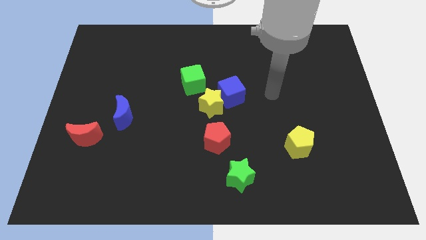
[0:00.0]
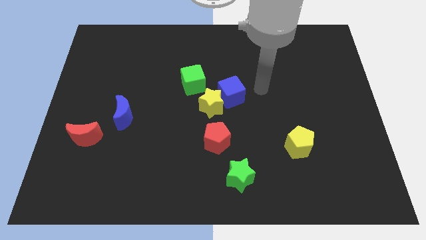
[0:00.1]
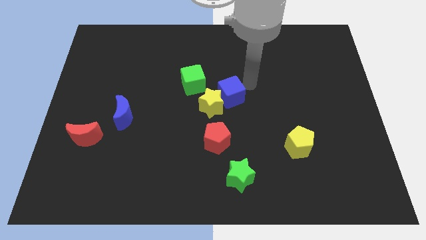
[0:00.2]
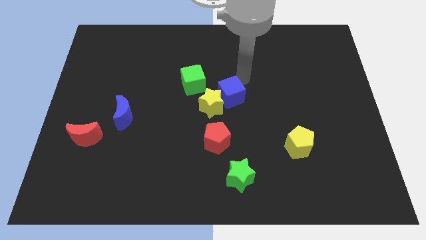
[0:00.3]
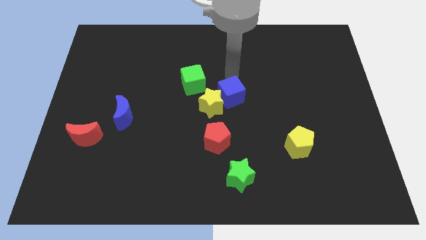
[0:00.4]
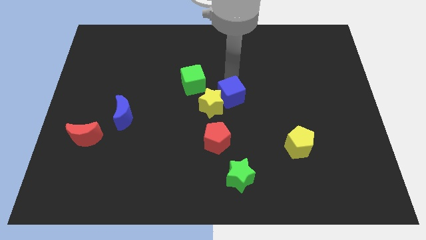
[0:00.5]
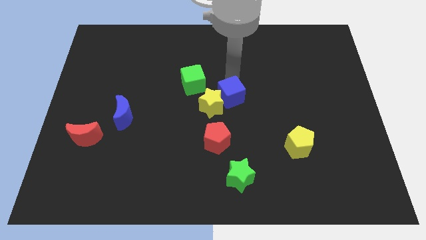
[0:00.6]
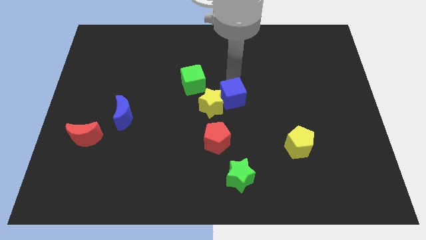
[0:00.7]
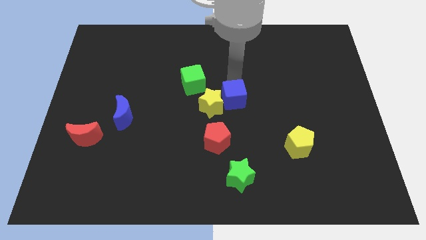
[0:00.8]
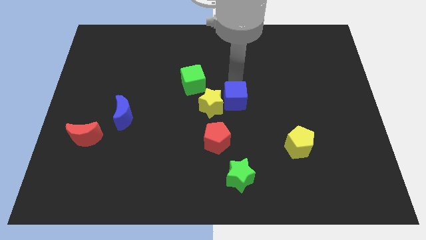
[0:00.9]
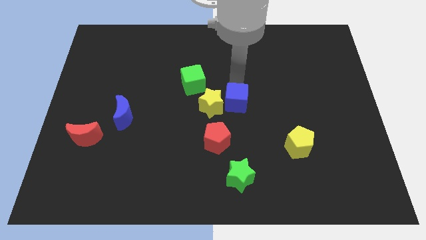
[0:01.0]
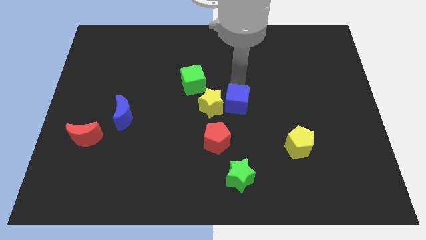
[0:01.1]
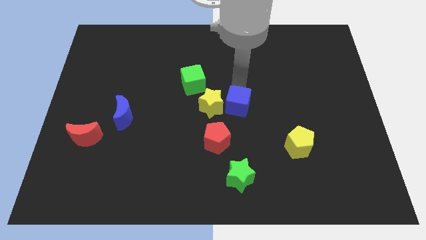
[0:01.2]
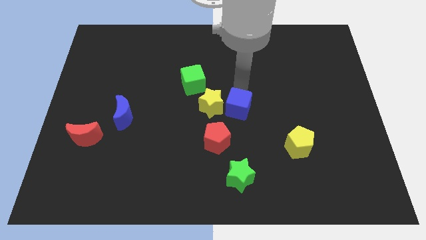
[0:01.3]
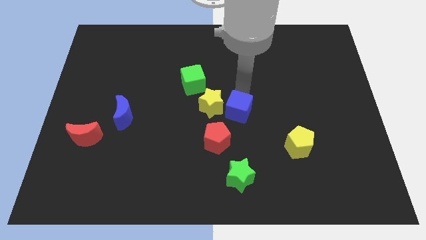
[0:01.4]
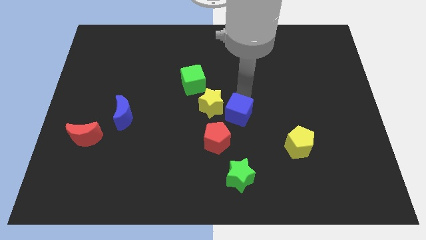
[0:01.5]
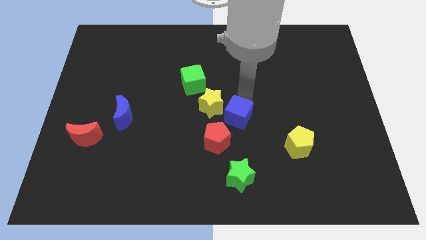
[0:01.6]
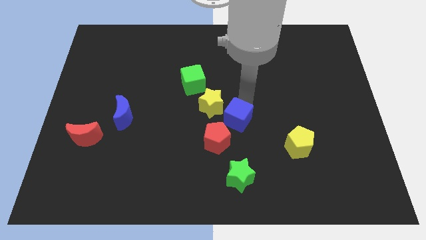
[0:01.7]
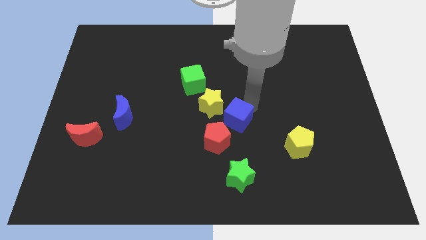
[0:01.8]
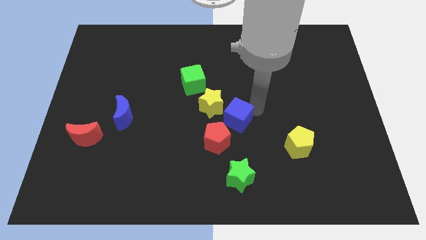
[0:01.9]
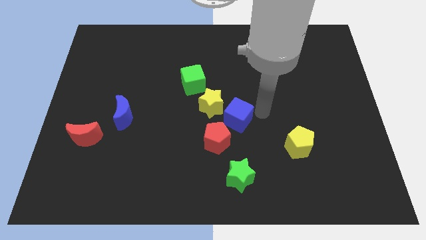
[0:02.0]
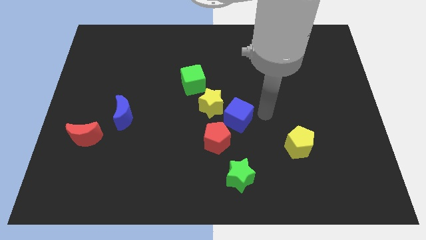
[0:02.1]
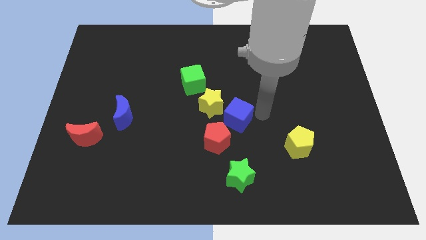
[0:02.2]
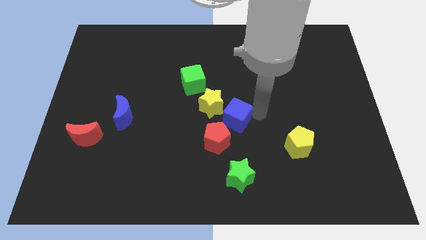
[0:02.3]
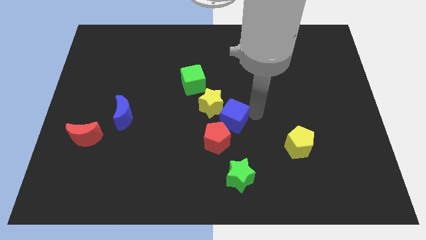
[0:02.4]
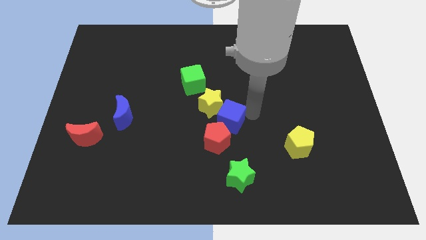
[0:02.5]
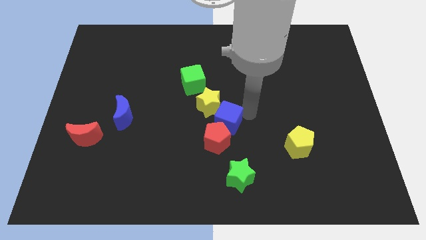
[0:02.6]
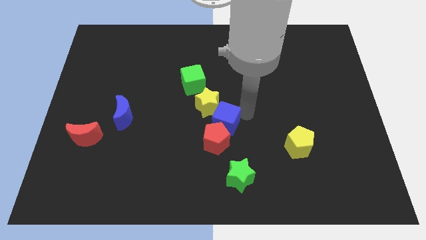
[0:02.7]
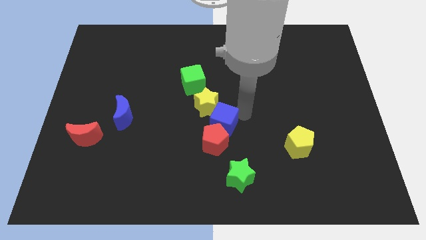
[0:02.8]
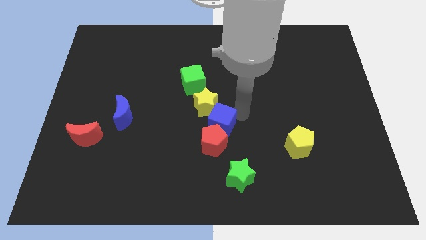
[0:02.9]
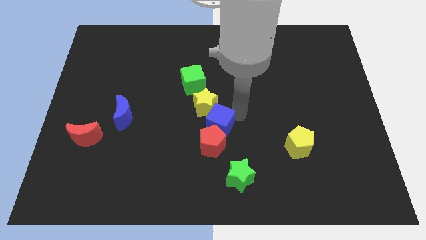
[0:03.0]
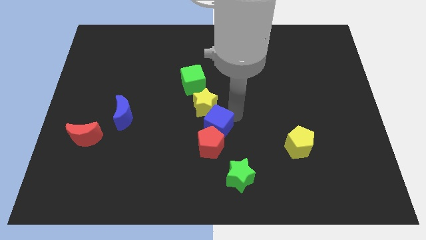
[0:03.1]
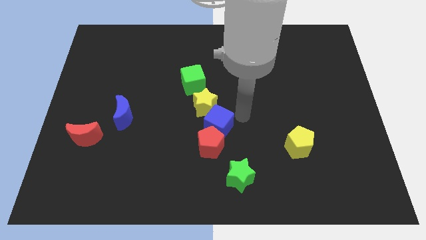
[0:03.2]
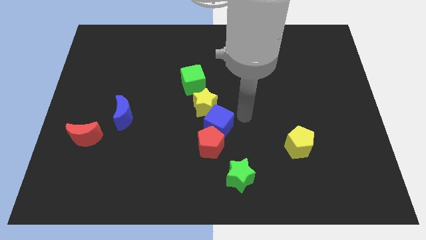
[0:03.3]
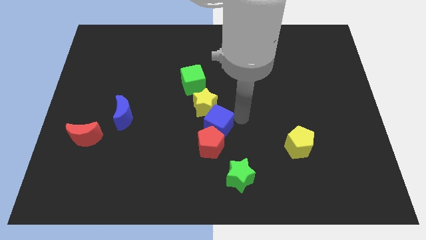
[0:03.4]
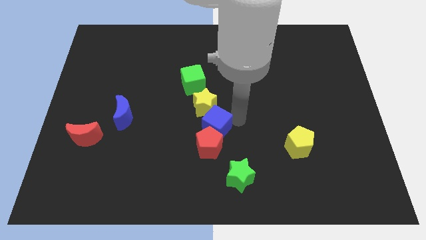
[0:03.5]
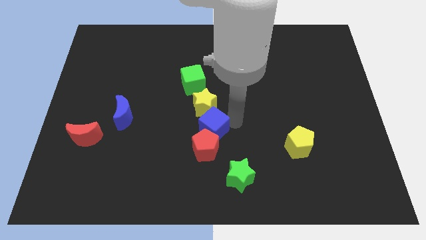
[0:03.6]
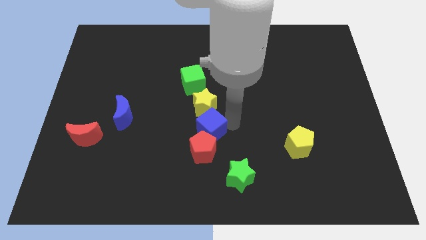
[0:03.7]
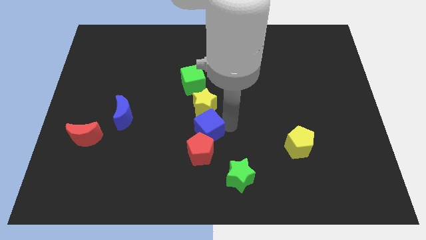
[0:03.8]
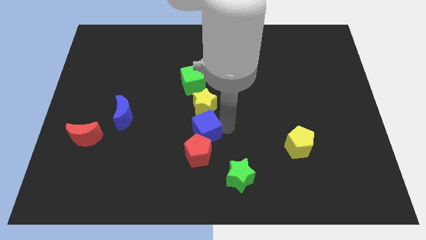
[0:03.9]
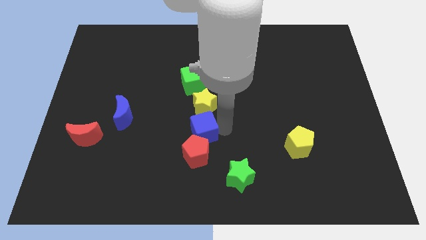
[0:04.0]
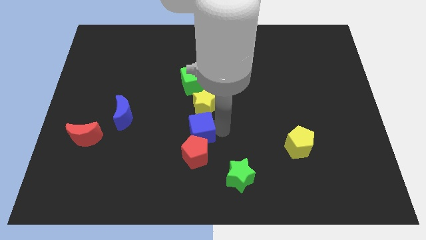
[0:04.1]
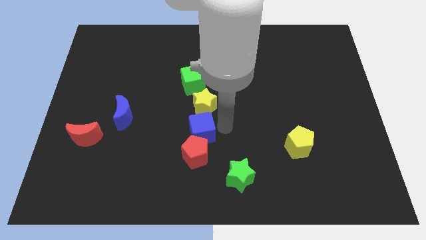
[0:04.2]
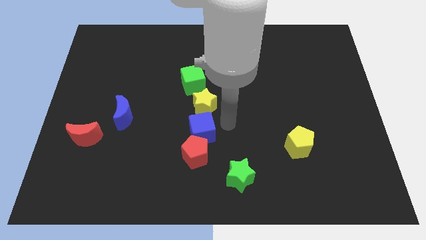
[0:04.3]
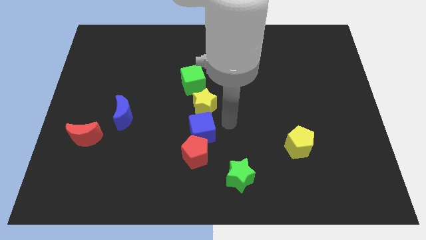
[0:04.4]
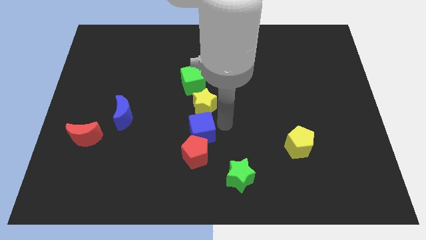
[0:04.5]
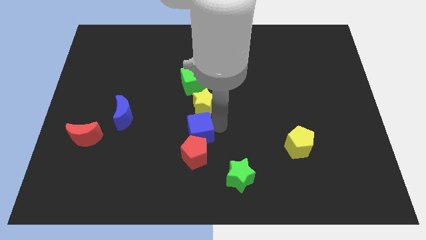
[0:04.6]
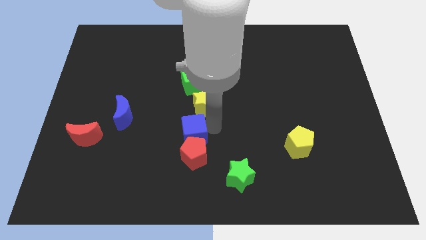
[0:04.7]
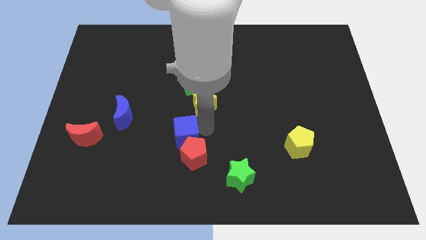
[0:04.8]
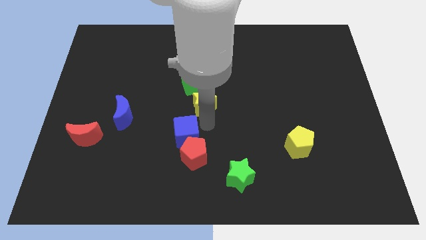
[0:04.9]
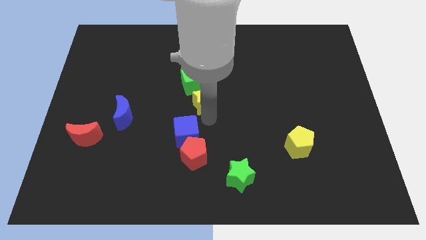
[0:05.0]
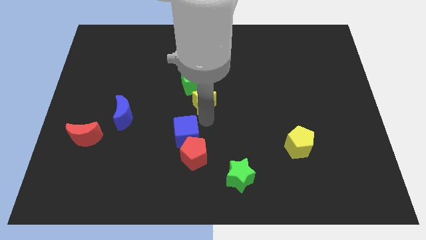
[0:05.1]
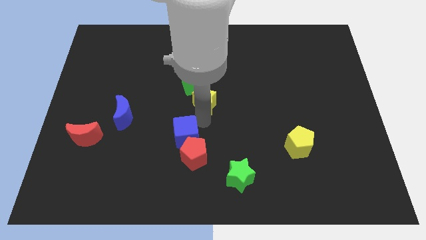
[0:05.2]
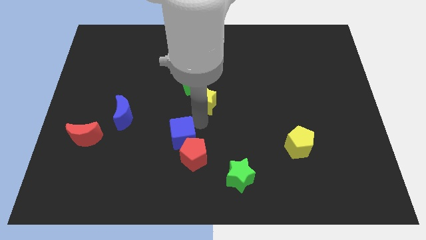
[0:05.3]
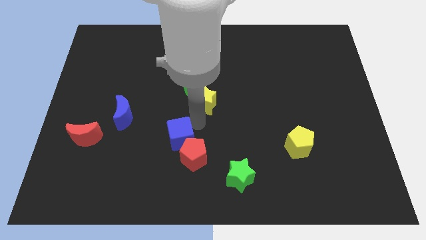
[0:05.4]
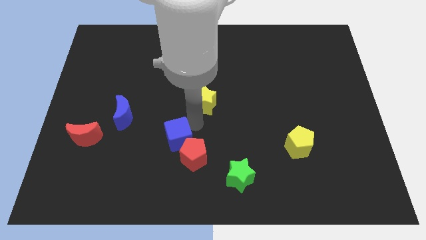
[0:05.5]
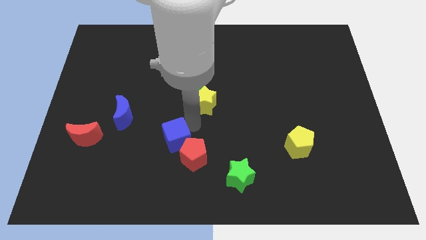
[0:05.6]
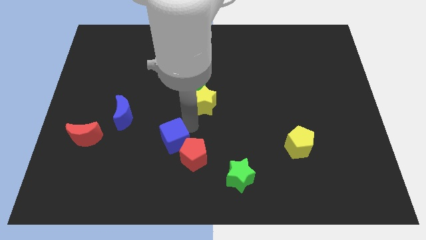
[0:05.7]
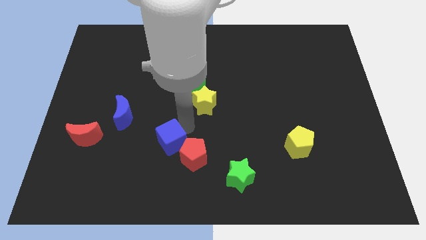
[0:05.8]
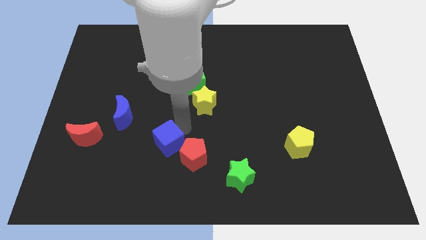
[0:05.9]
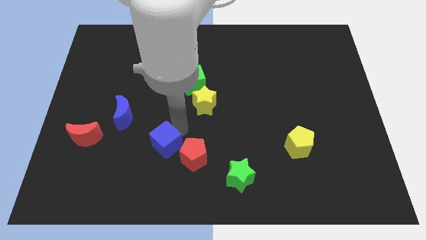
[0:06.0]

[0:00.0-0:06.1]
slide the blue cube downwards and then to the left

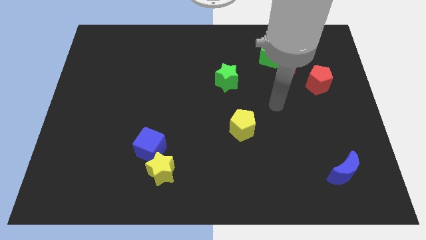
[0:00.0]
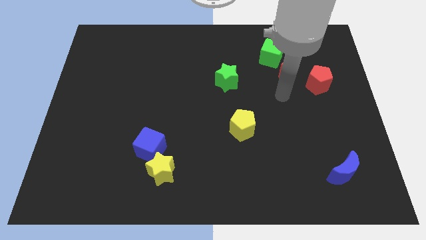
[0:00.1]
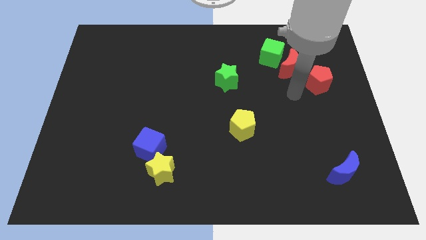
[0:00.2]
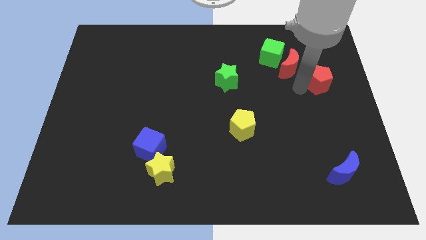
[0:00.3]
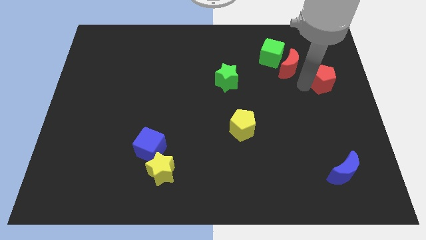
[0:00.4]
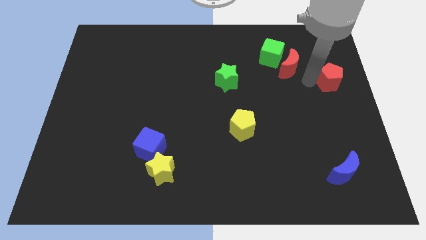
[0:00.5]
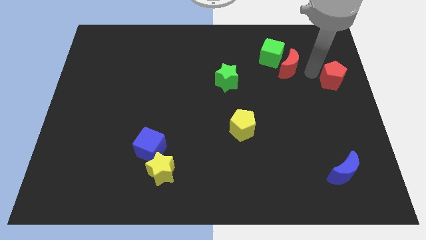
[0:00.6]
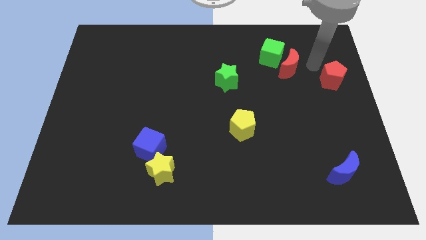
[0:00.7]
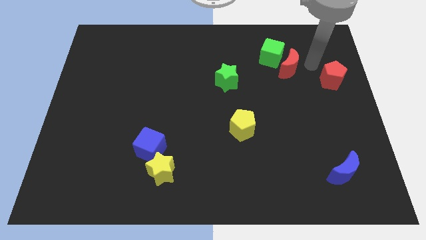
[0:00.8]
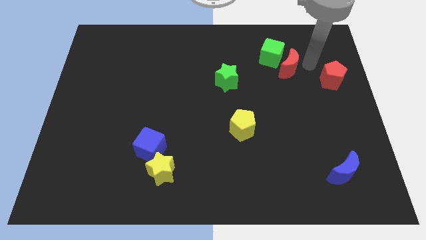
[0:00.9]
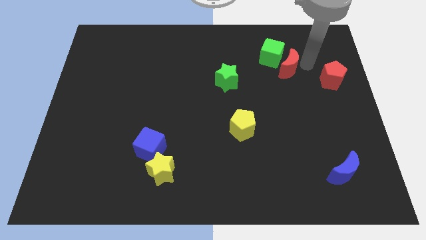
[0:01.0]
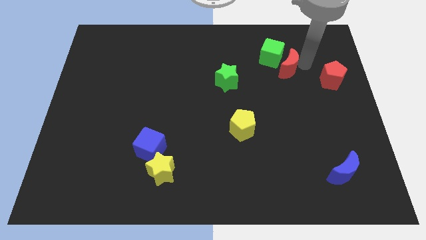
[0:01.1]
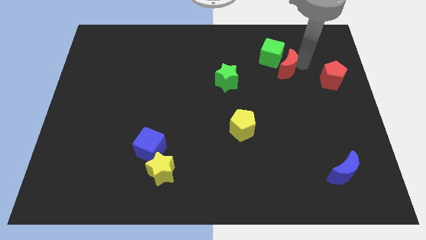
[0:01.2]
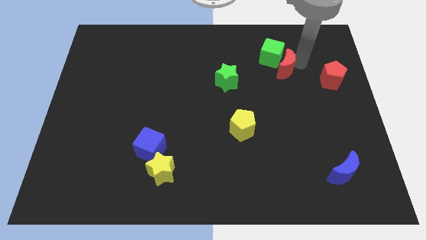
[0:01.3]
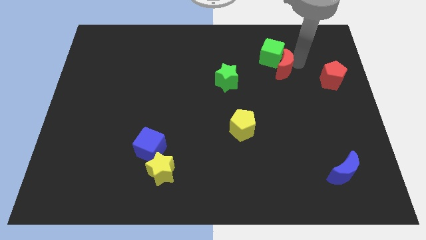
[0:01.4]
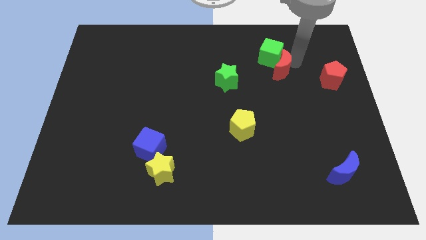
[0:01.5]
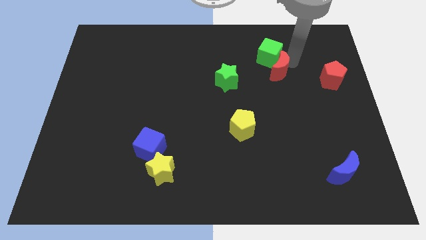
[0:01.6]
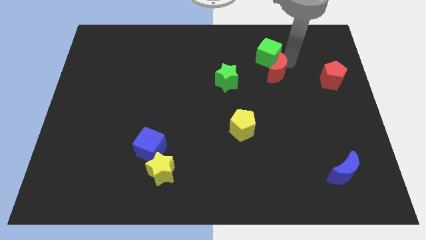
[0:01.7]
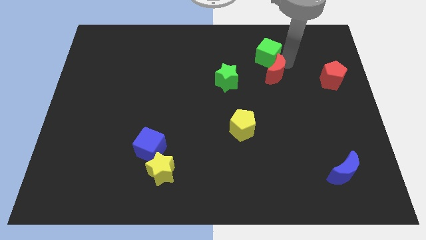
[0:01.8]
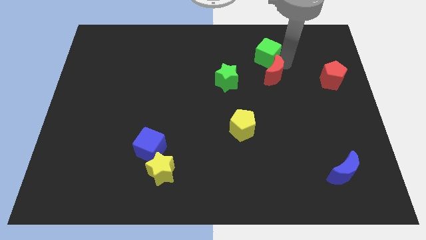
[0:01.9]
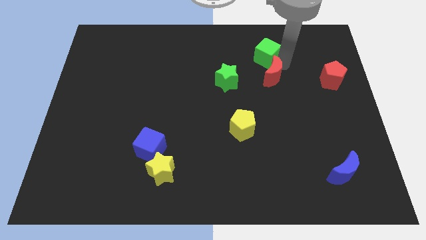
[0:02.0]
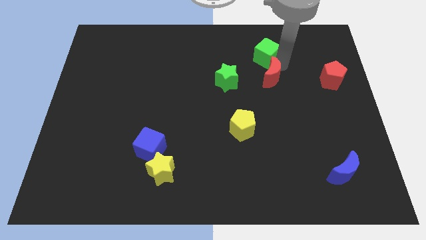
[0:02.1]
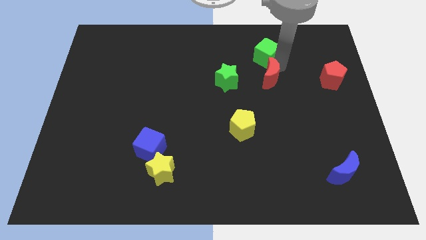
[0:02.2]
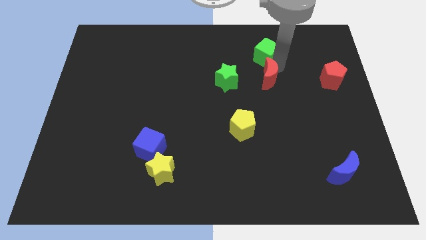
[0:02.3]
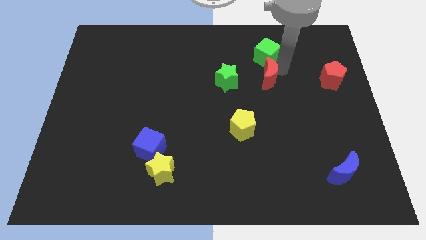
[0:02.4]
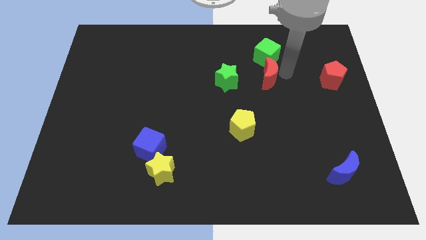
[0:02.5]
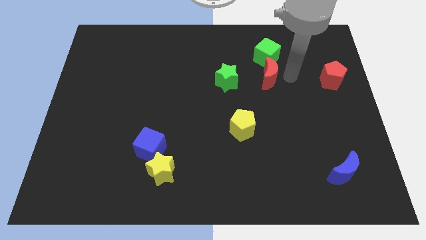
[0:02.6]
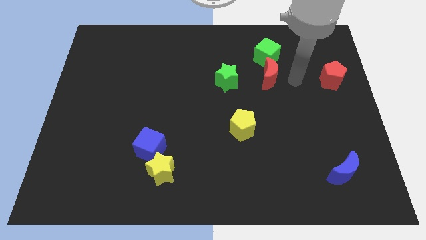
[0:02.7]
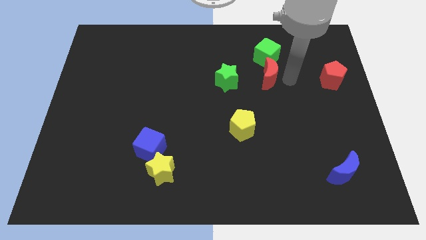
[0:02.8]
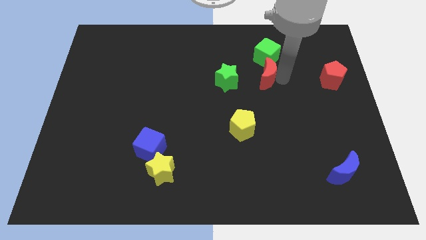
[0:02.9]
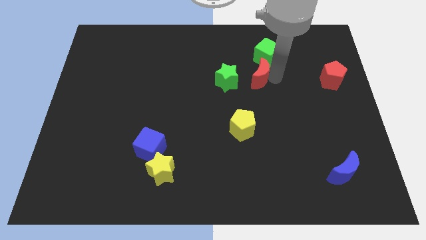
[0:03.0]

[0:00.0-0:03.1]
slightly move the red moon to the left
